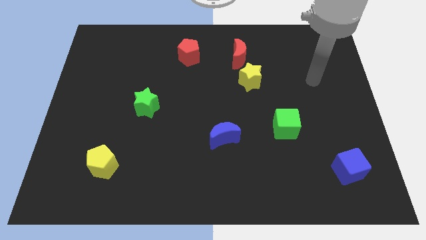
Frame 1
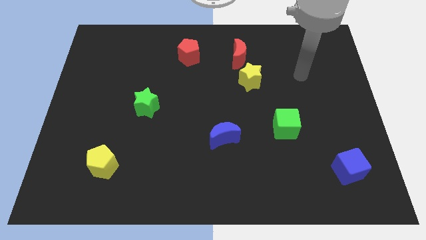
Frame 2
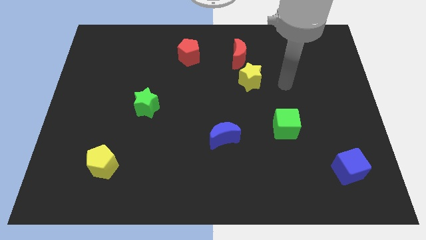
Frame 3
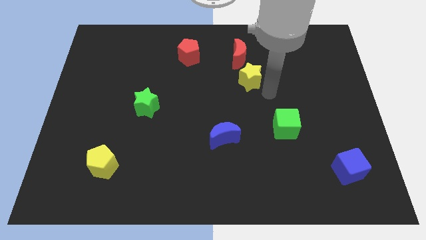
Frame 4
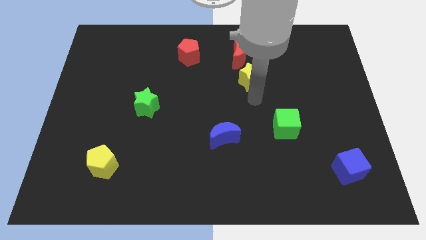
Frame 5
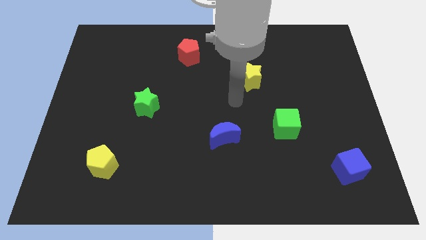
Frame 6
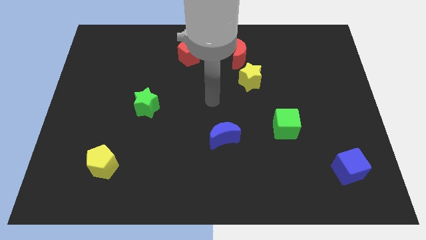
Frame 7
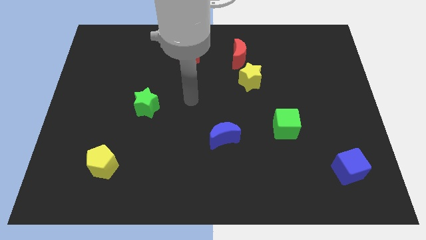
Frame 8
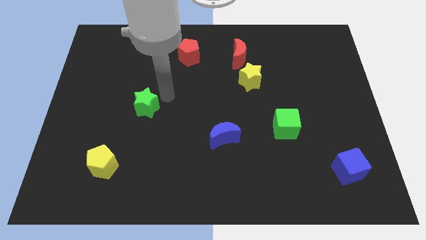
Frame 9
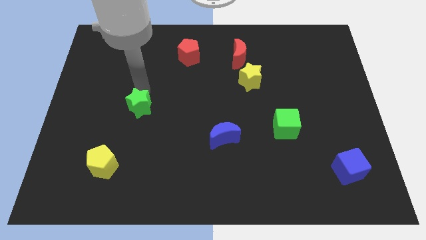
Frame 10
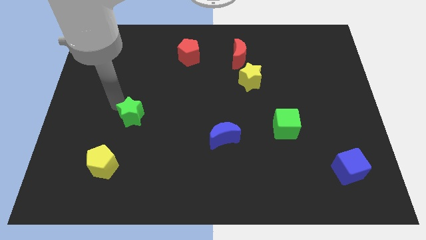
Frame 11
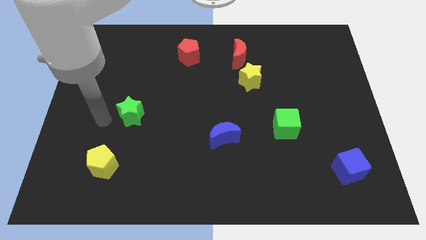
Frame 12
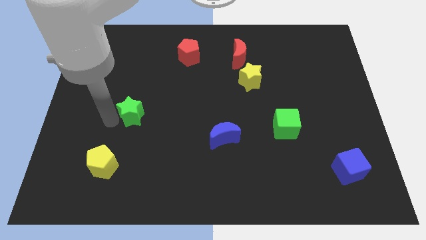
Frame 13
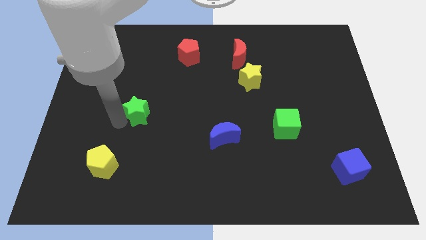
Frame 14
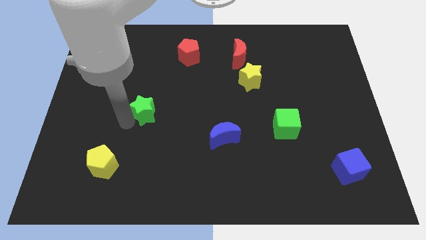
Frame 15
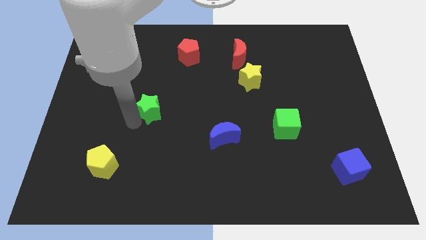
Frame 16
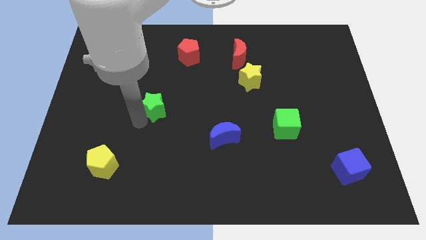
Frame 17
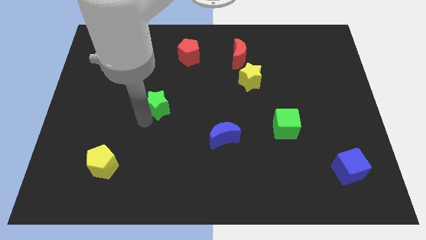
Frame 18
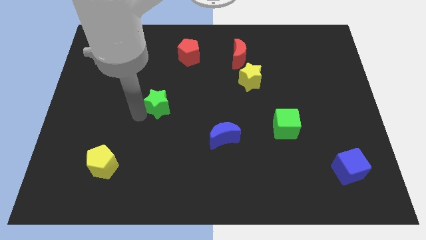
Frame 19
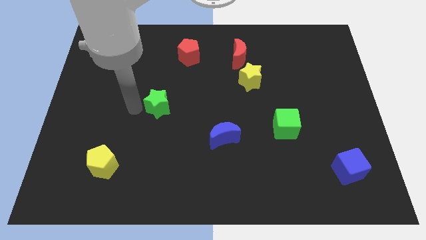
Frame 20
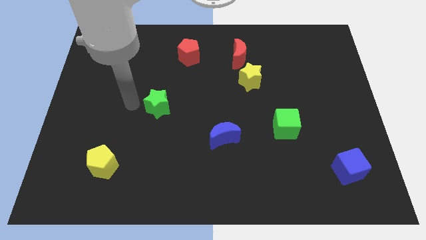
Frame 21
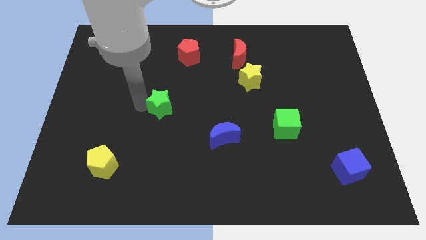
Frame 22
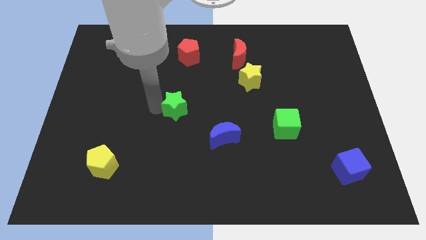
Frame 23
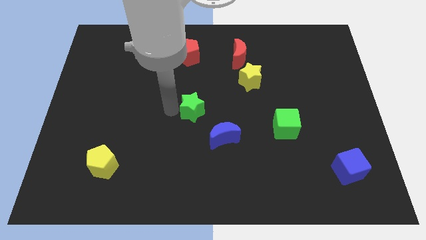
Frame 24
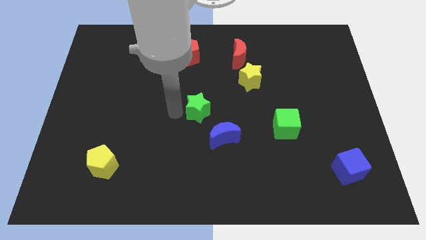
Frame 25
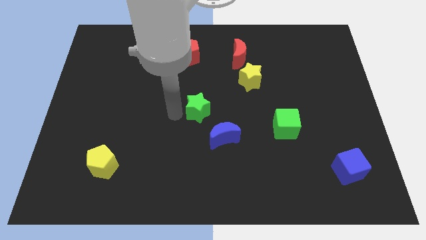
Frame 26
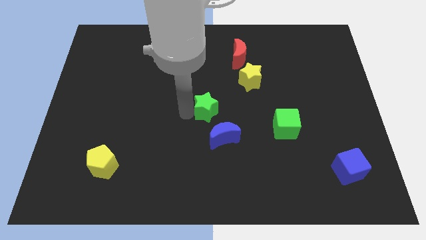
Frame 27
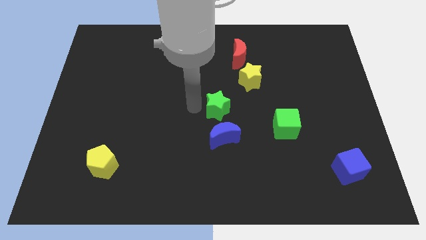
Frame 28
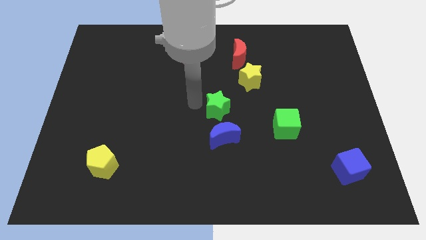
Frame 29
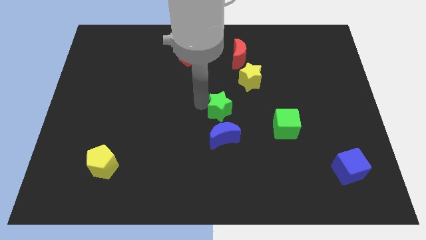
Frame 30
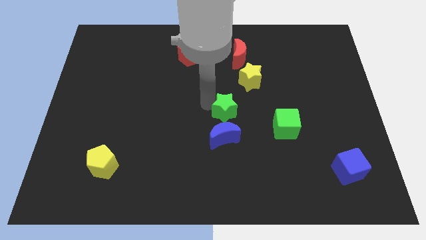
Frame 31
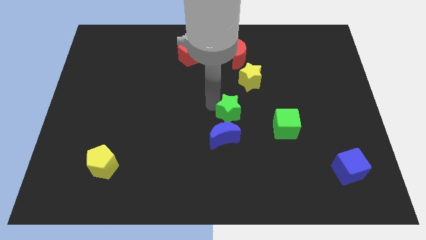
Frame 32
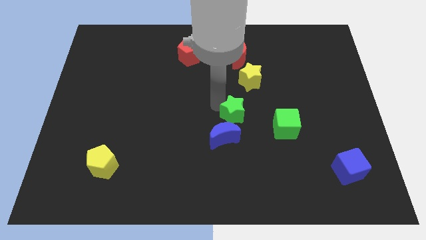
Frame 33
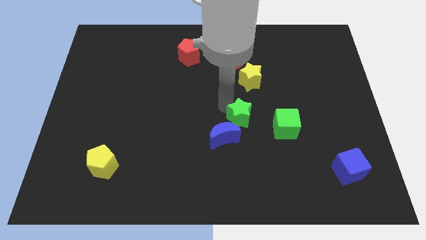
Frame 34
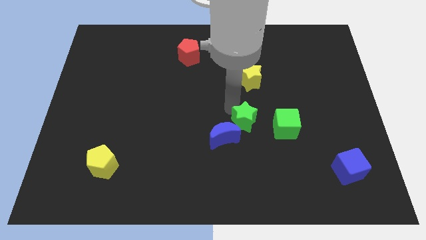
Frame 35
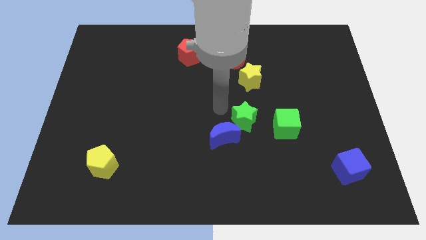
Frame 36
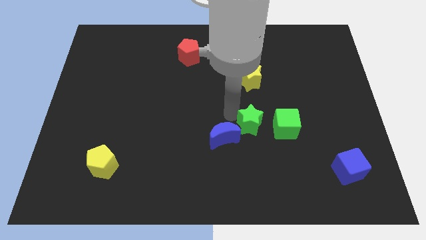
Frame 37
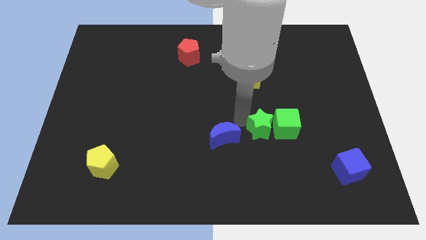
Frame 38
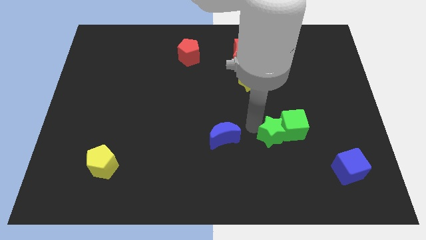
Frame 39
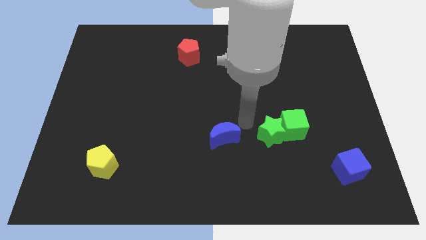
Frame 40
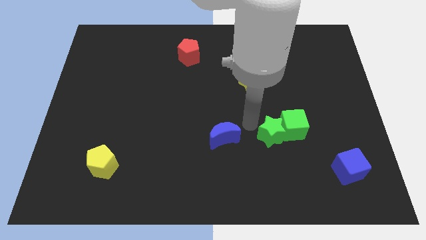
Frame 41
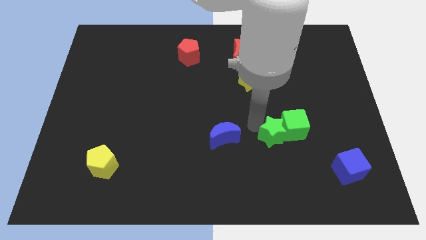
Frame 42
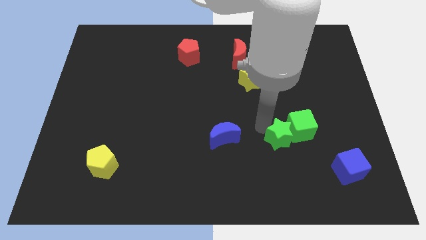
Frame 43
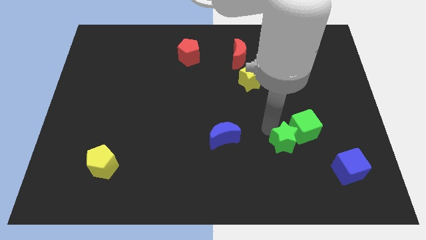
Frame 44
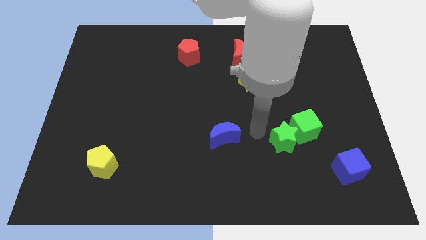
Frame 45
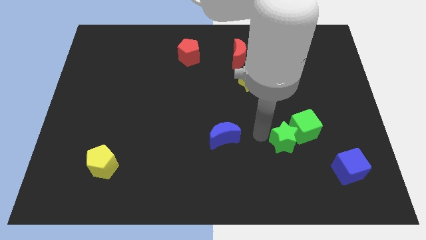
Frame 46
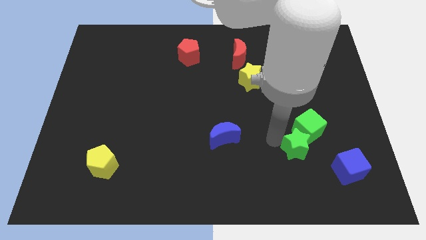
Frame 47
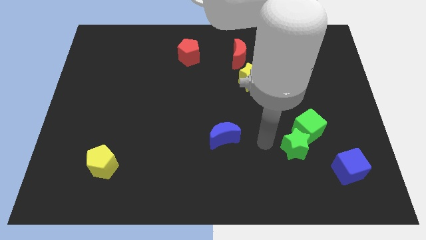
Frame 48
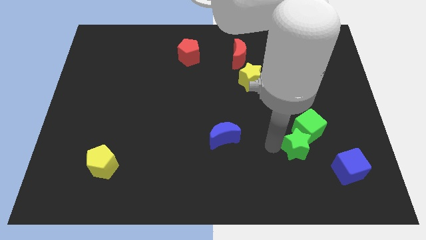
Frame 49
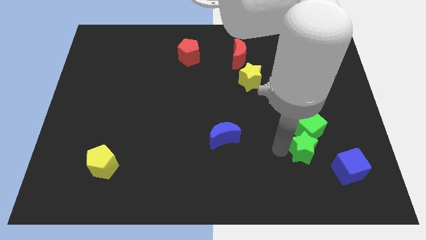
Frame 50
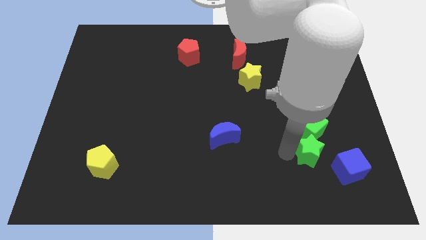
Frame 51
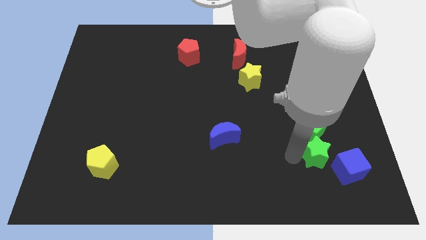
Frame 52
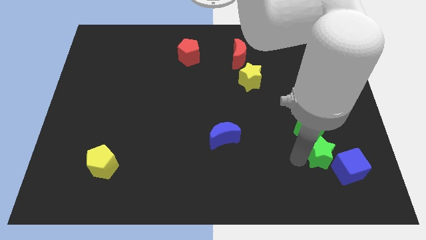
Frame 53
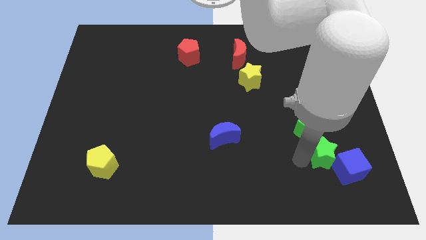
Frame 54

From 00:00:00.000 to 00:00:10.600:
put the green star next to the blue cube

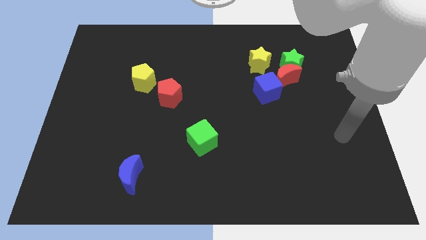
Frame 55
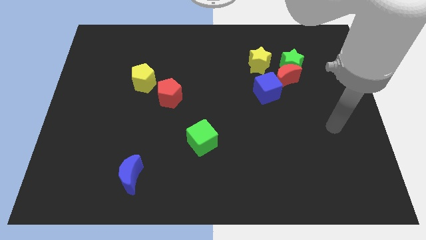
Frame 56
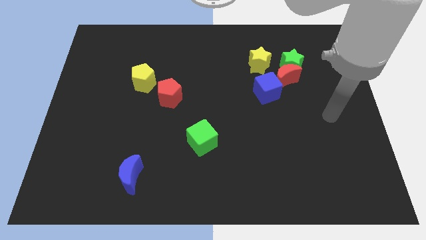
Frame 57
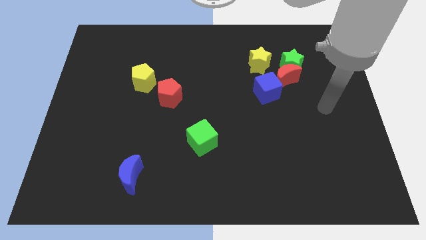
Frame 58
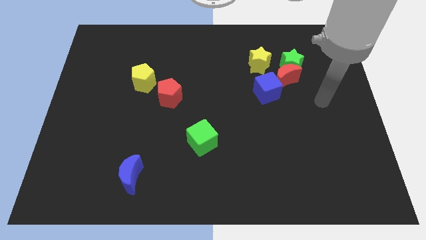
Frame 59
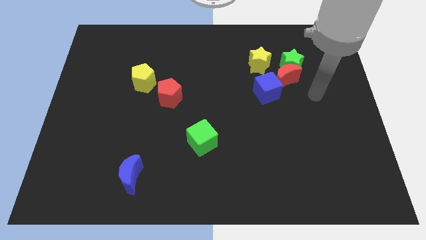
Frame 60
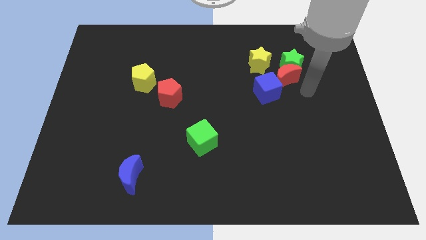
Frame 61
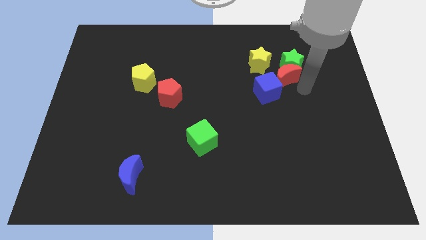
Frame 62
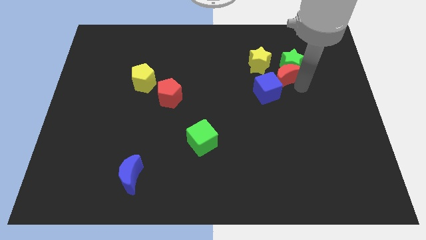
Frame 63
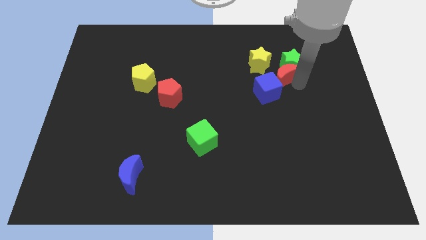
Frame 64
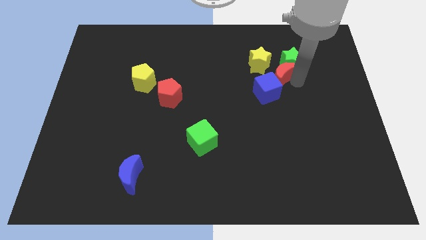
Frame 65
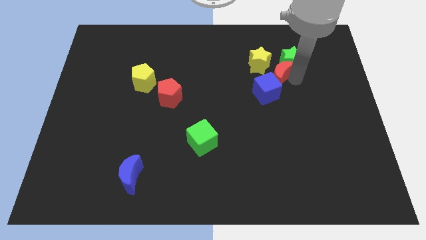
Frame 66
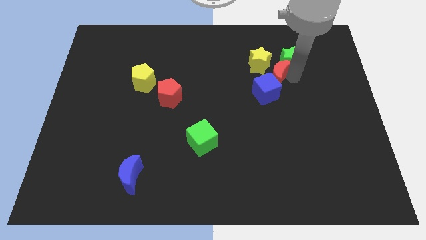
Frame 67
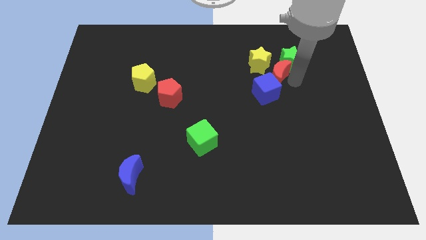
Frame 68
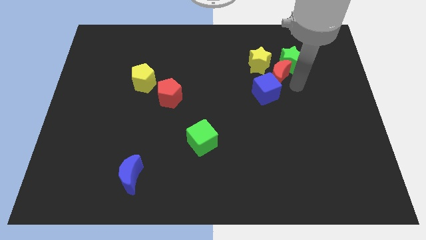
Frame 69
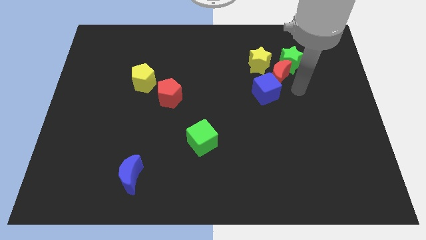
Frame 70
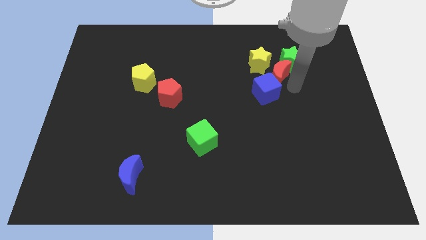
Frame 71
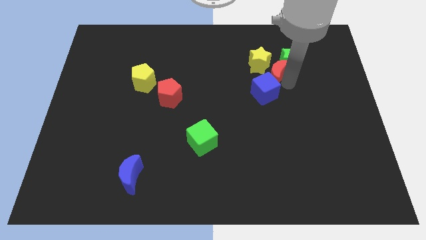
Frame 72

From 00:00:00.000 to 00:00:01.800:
move the red moon close to the yellow star
